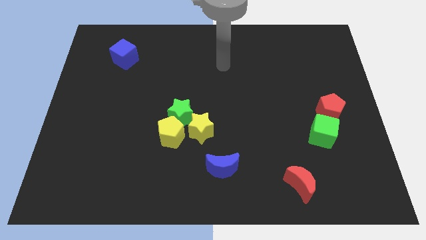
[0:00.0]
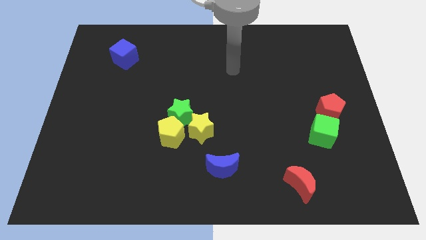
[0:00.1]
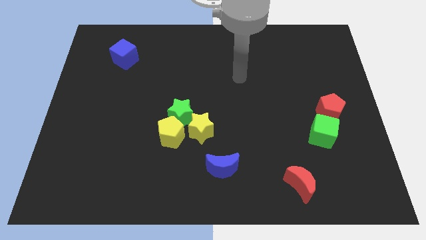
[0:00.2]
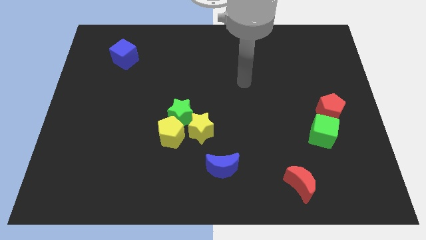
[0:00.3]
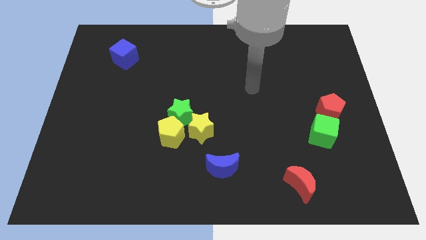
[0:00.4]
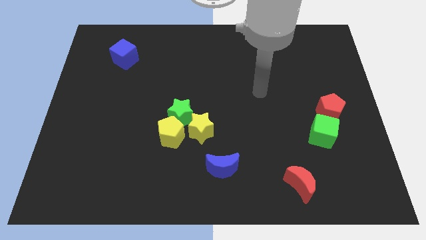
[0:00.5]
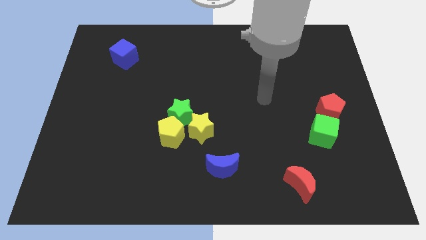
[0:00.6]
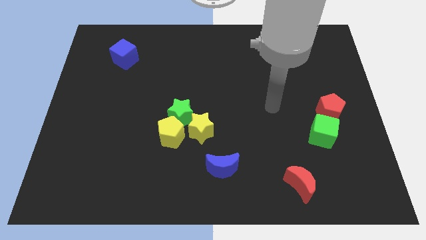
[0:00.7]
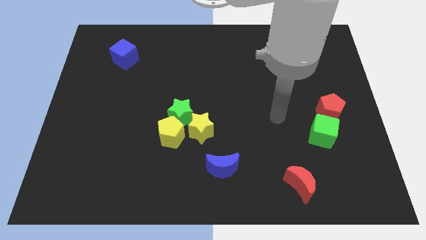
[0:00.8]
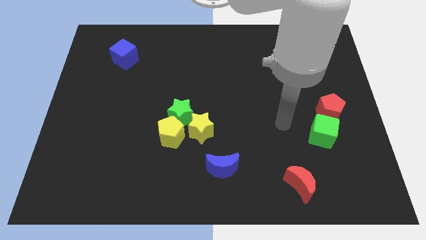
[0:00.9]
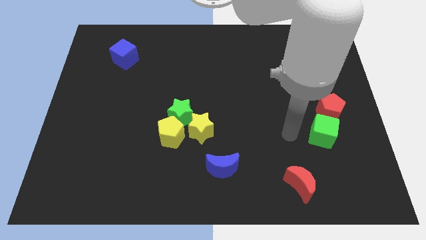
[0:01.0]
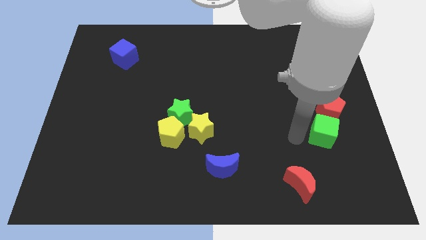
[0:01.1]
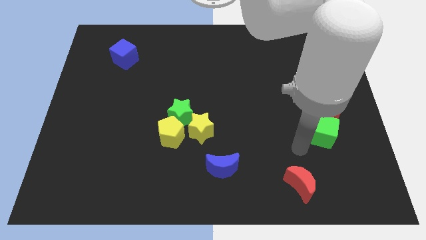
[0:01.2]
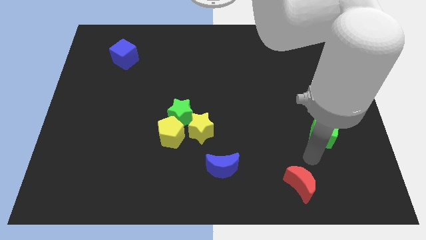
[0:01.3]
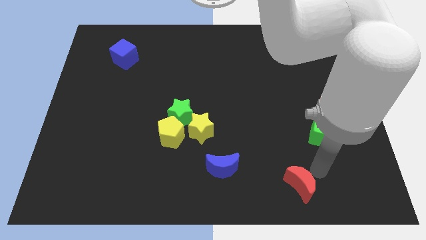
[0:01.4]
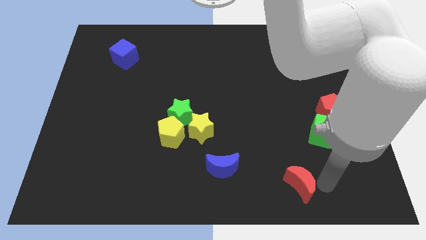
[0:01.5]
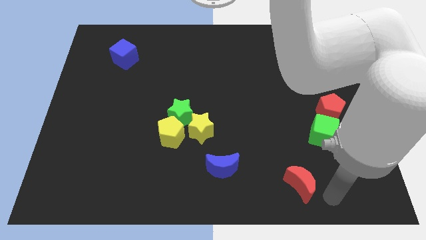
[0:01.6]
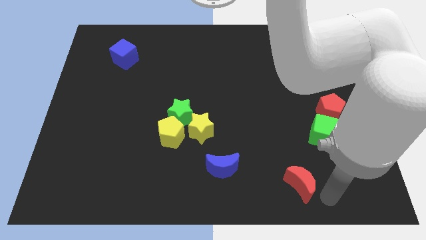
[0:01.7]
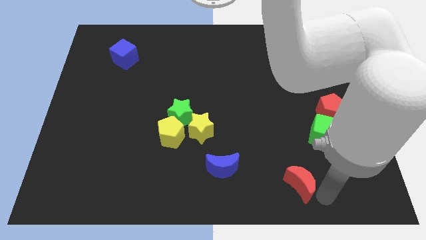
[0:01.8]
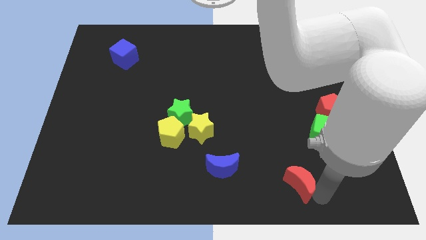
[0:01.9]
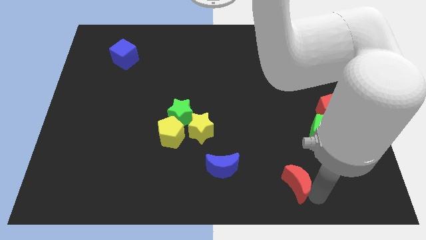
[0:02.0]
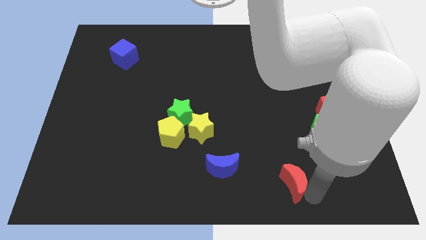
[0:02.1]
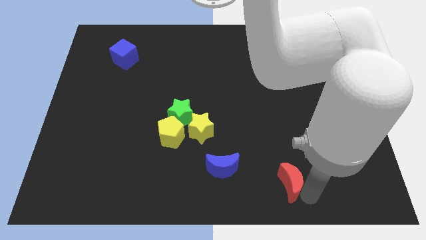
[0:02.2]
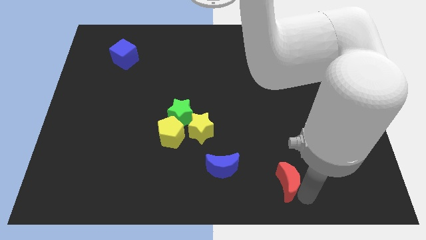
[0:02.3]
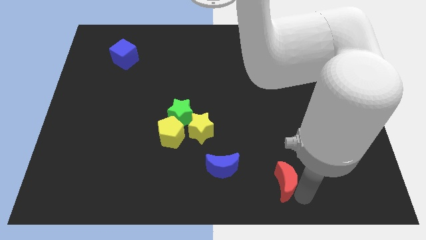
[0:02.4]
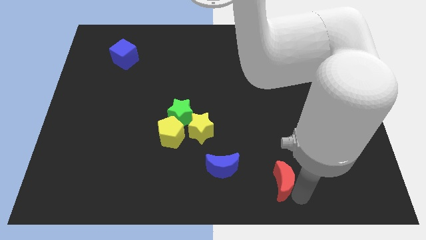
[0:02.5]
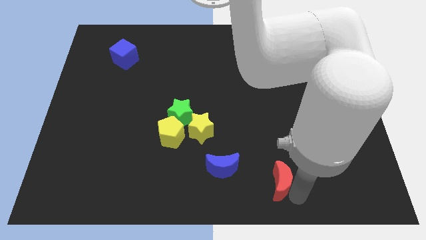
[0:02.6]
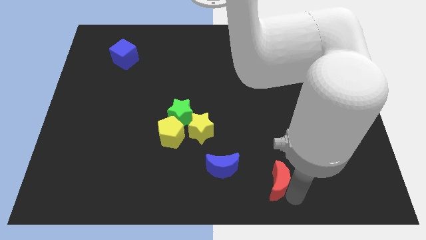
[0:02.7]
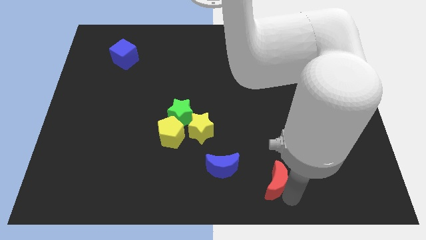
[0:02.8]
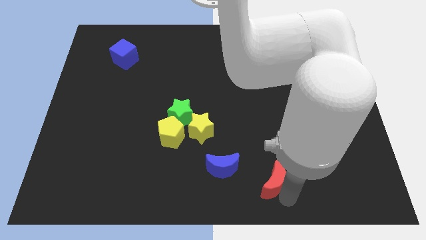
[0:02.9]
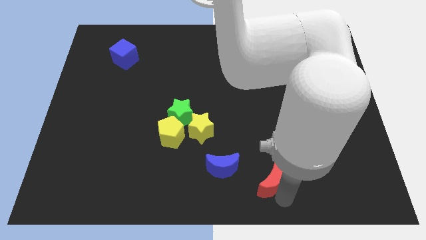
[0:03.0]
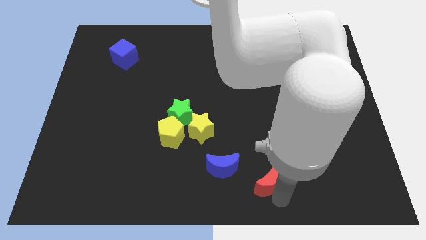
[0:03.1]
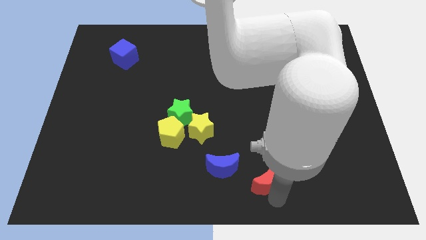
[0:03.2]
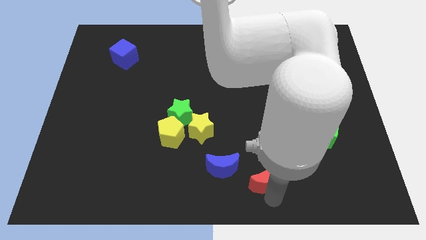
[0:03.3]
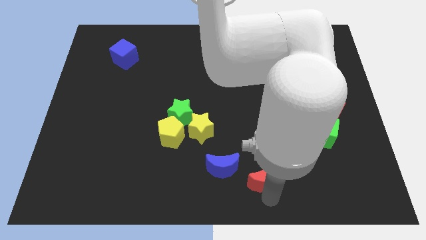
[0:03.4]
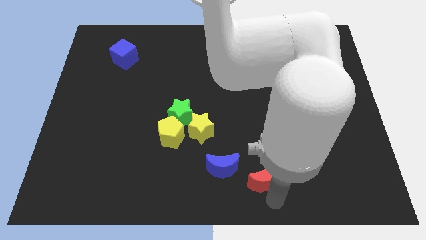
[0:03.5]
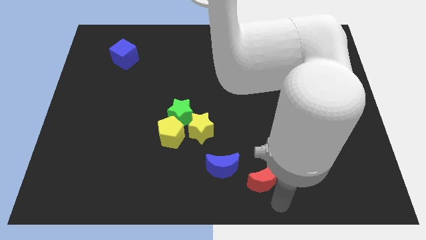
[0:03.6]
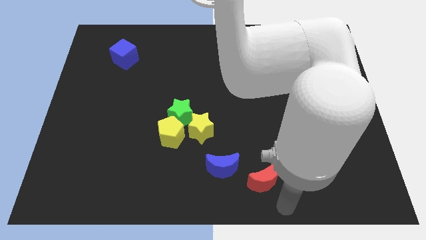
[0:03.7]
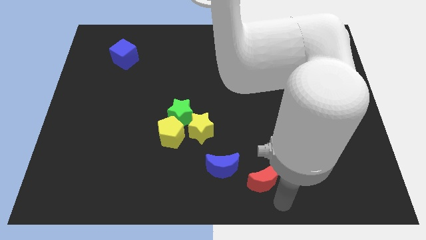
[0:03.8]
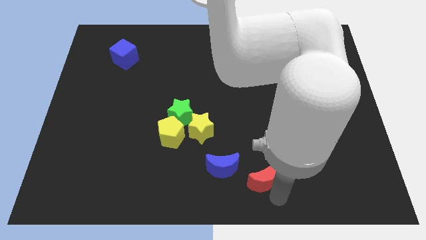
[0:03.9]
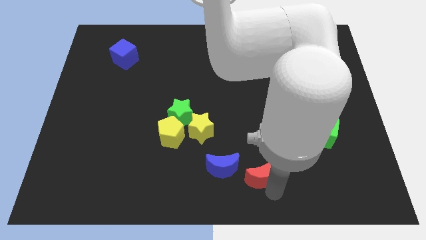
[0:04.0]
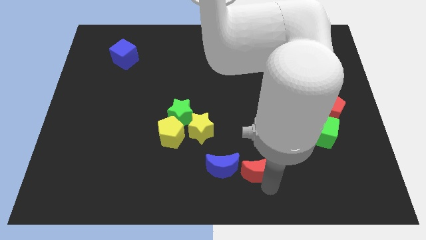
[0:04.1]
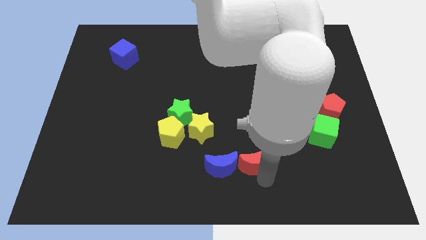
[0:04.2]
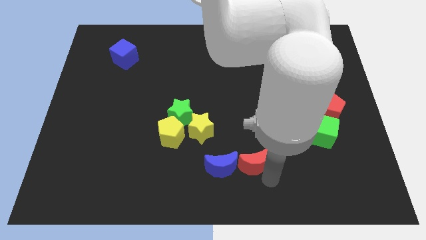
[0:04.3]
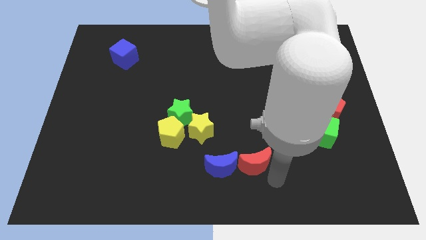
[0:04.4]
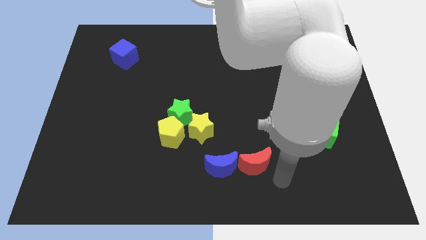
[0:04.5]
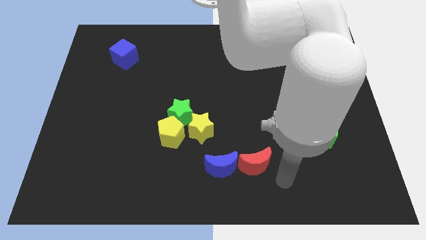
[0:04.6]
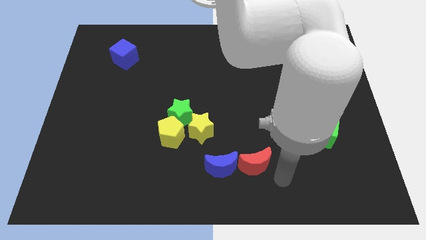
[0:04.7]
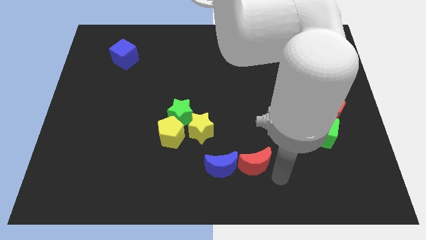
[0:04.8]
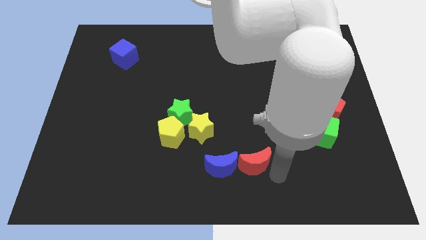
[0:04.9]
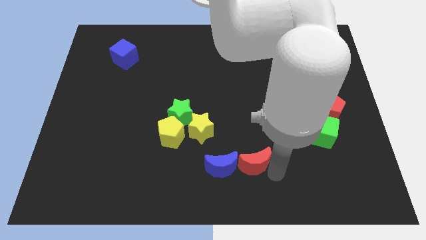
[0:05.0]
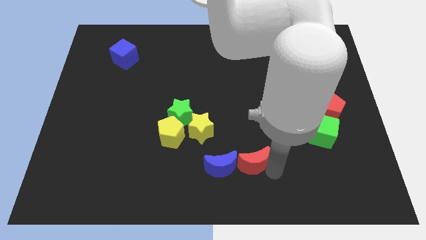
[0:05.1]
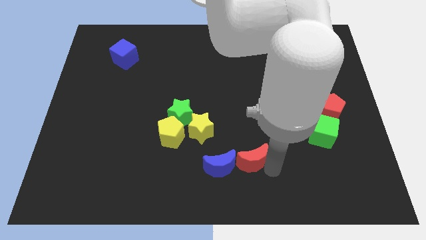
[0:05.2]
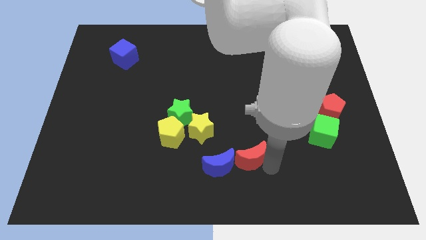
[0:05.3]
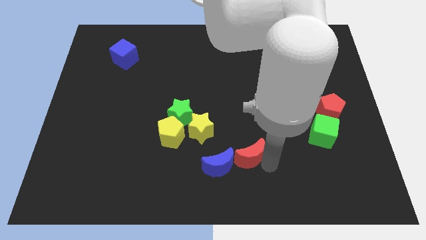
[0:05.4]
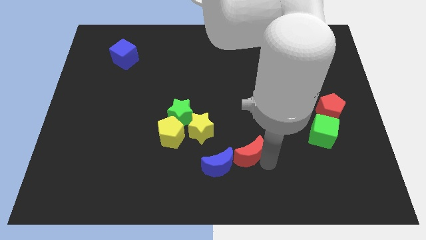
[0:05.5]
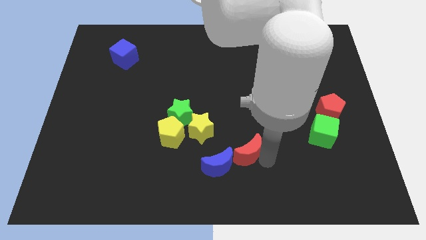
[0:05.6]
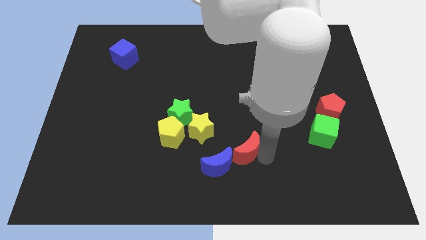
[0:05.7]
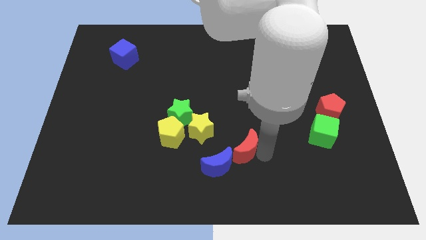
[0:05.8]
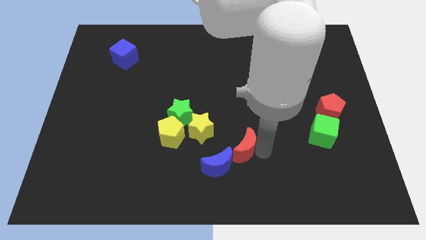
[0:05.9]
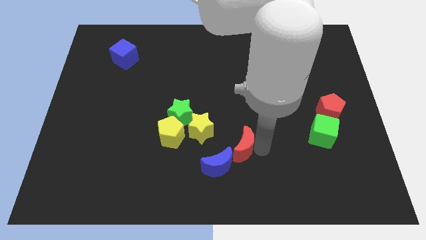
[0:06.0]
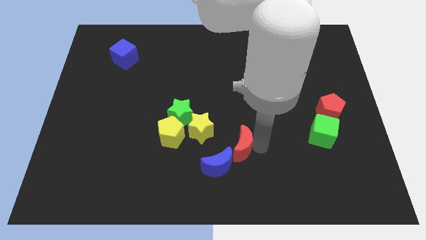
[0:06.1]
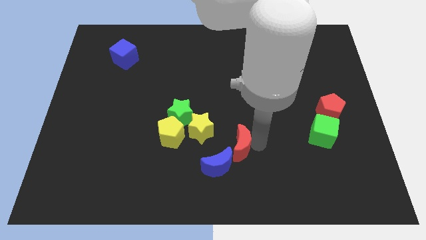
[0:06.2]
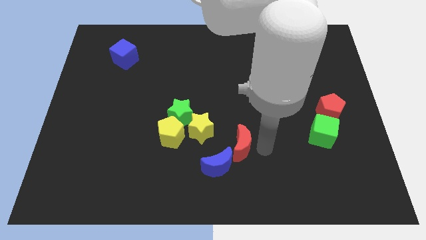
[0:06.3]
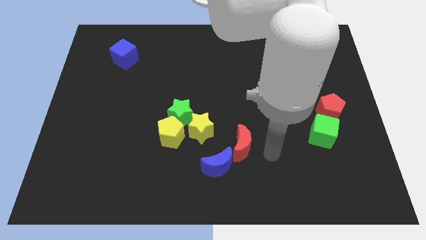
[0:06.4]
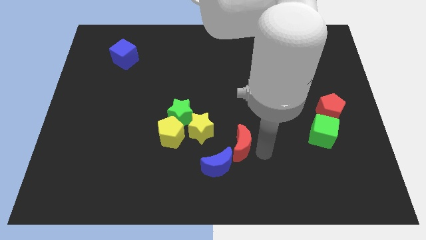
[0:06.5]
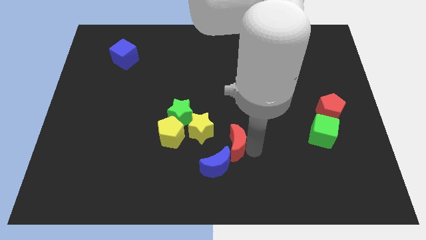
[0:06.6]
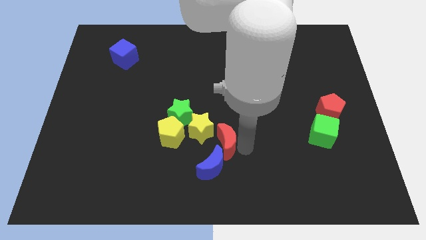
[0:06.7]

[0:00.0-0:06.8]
move the red moon diagonally down and to the right of the green star
